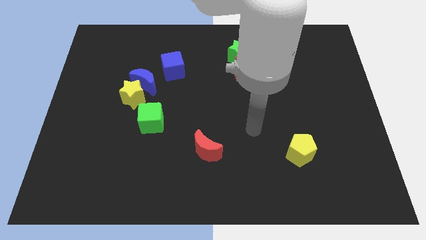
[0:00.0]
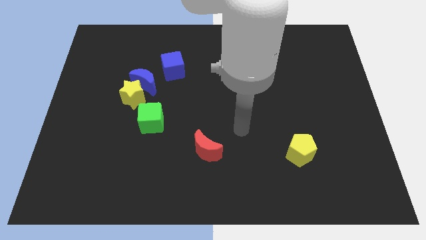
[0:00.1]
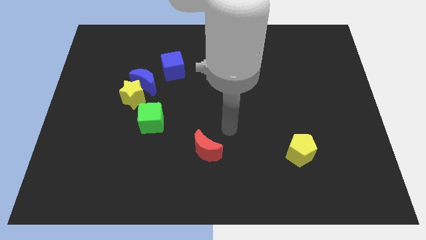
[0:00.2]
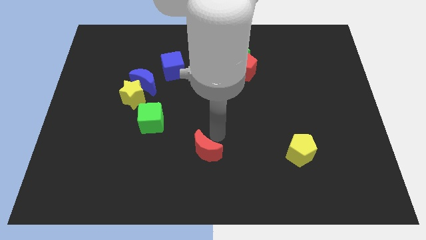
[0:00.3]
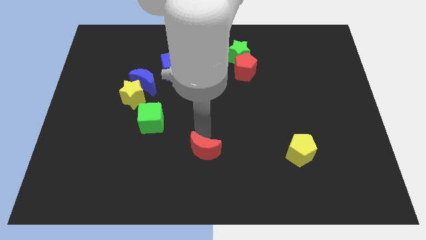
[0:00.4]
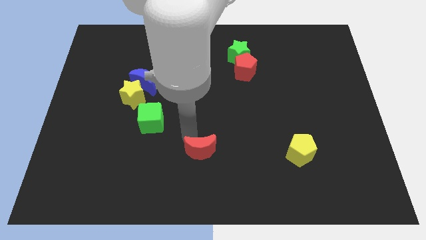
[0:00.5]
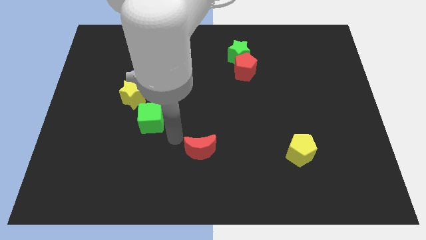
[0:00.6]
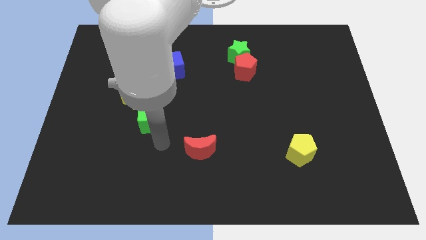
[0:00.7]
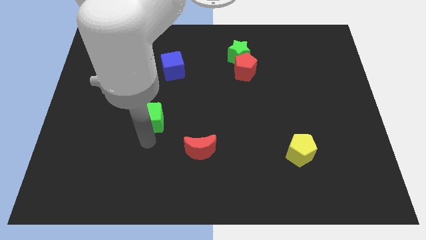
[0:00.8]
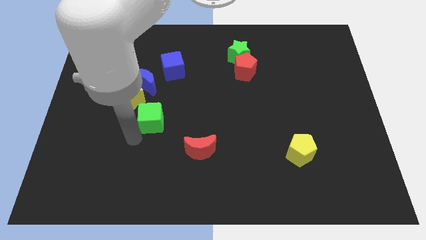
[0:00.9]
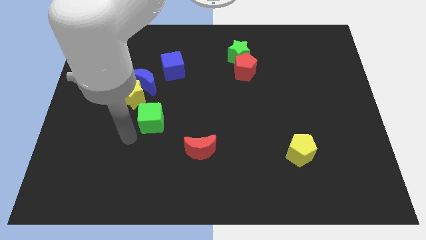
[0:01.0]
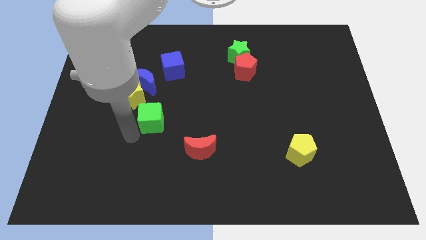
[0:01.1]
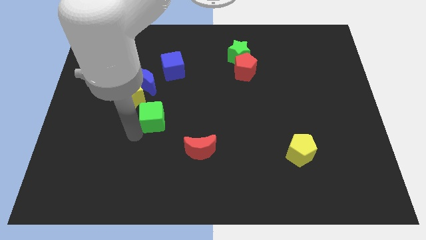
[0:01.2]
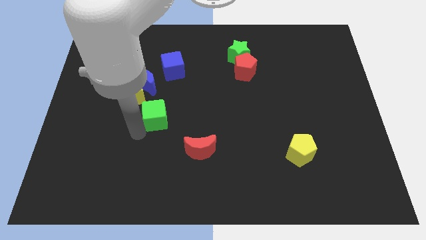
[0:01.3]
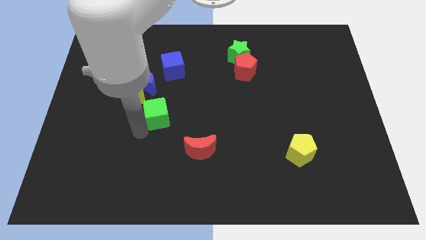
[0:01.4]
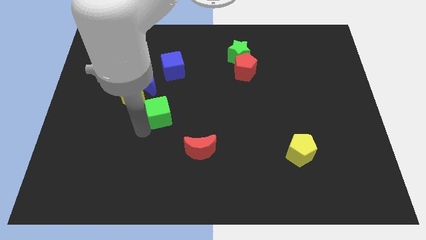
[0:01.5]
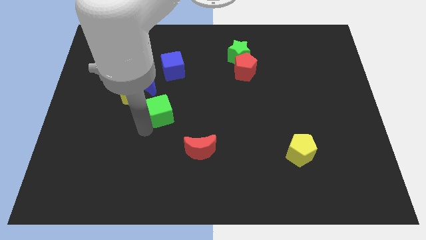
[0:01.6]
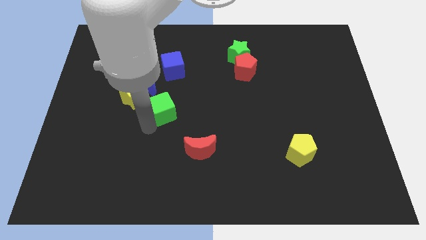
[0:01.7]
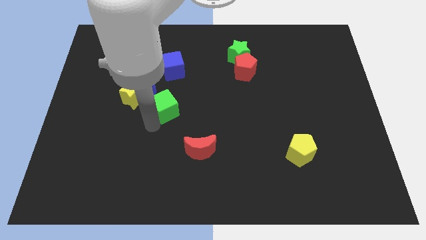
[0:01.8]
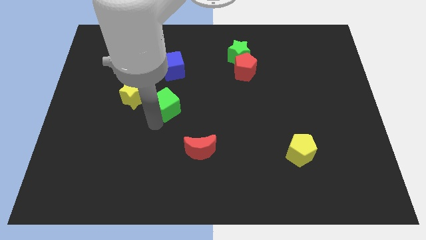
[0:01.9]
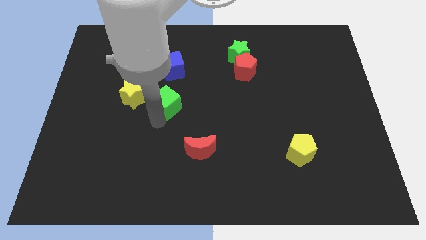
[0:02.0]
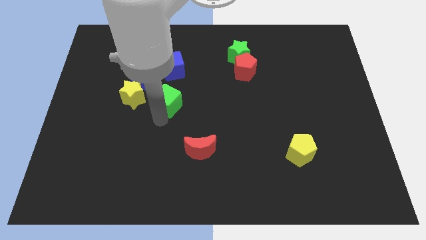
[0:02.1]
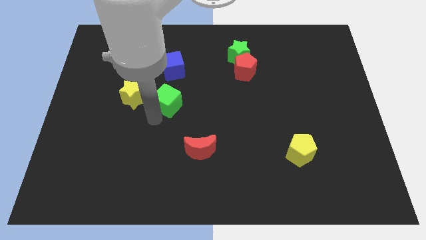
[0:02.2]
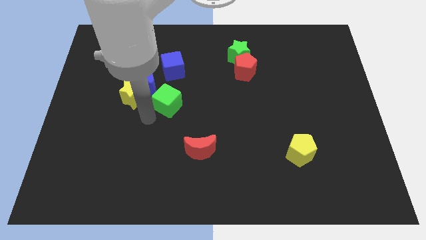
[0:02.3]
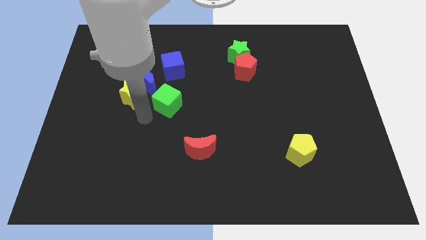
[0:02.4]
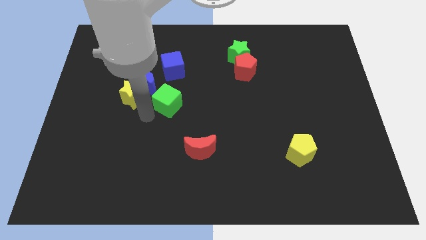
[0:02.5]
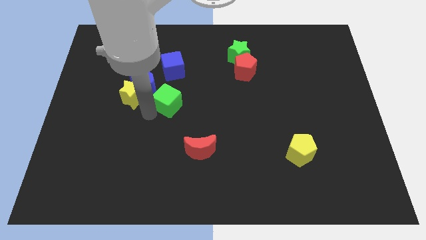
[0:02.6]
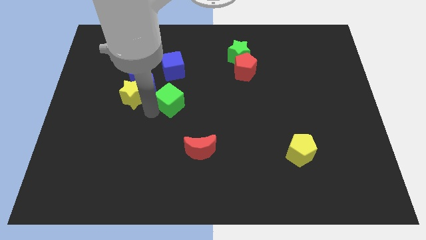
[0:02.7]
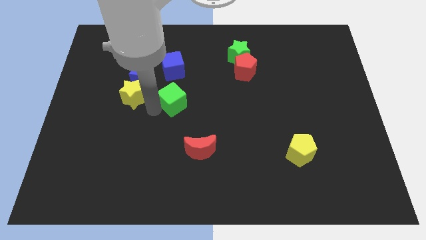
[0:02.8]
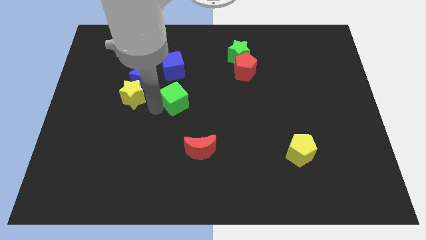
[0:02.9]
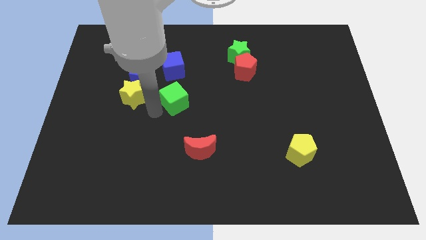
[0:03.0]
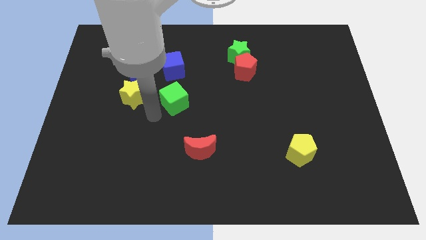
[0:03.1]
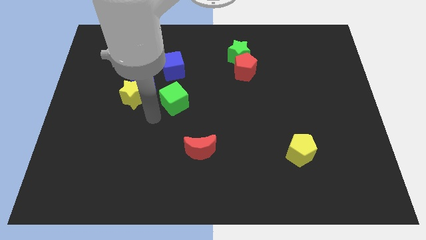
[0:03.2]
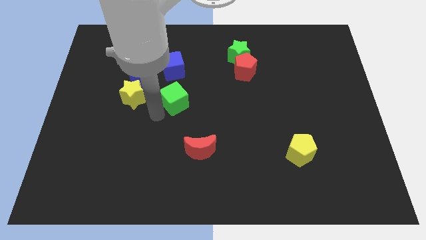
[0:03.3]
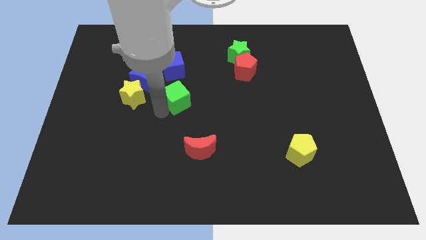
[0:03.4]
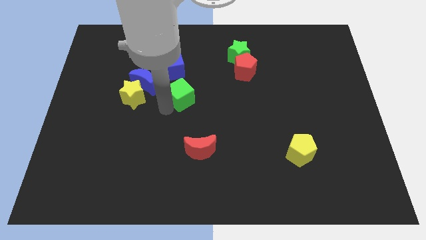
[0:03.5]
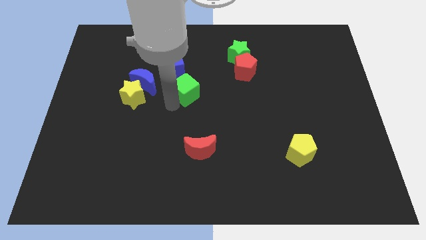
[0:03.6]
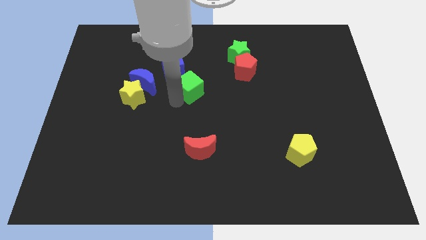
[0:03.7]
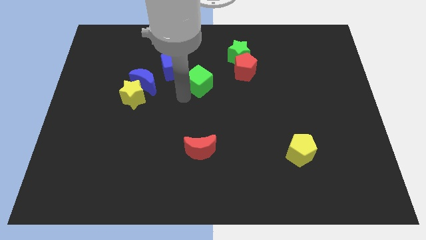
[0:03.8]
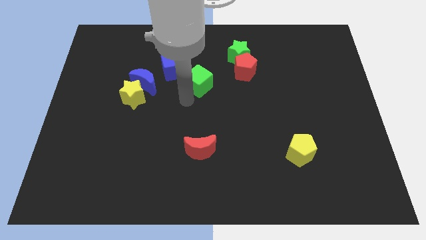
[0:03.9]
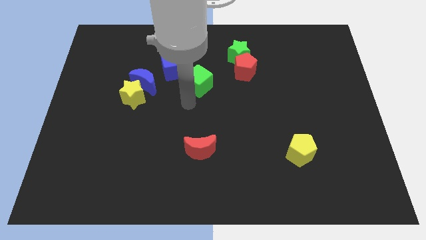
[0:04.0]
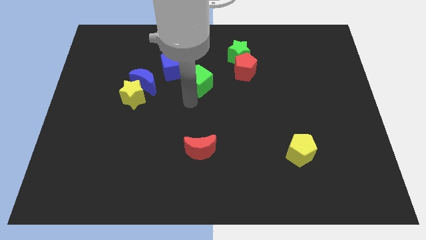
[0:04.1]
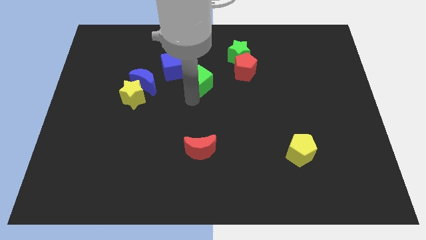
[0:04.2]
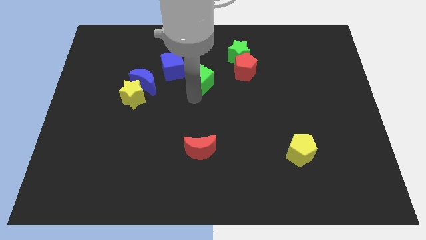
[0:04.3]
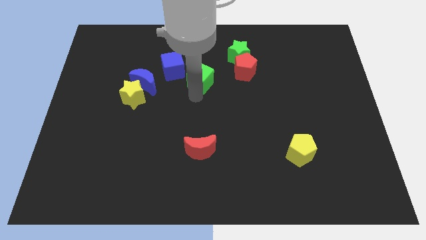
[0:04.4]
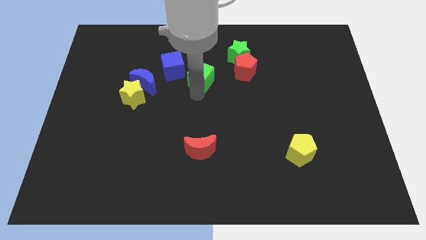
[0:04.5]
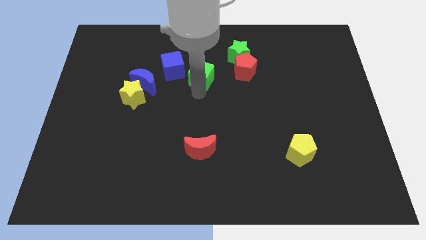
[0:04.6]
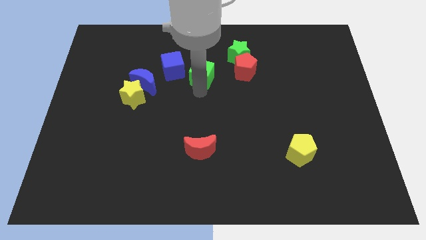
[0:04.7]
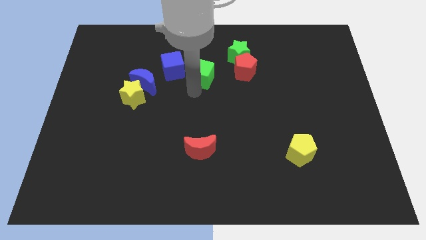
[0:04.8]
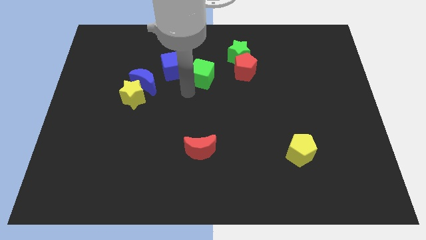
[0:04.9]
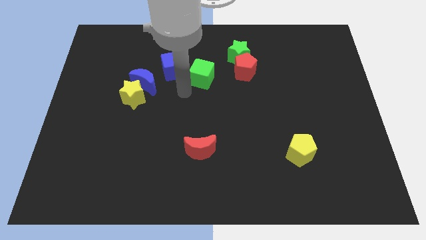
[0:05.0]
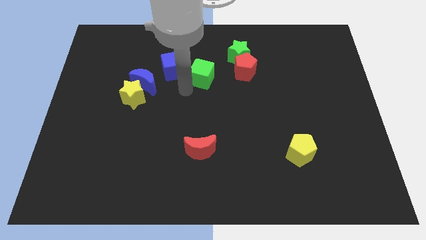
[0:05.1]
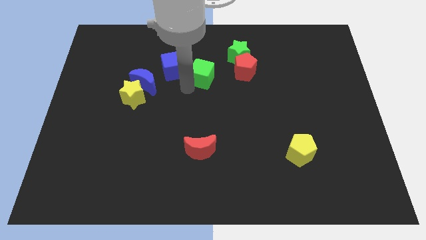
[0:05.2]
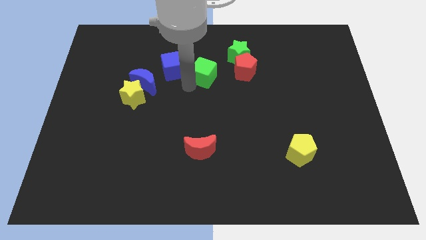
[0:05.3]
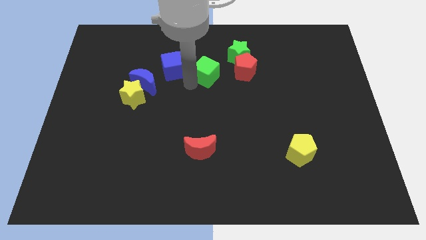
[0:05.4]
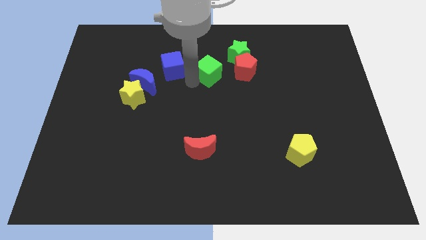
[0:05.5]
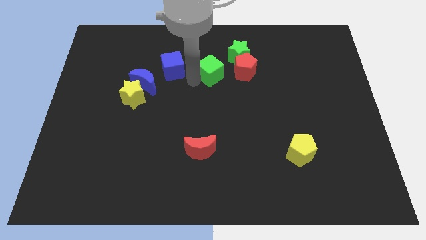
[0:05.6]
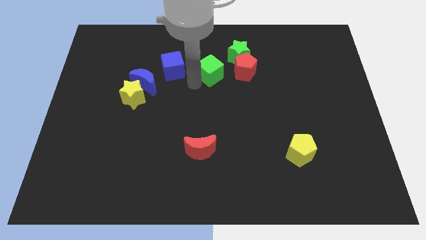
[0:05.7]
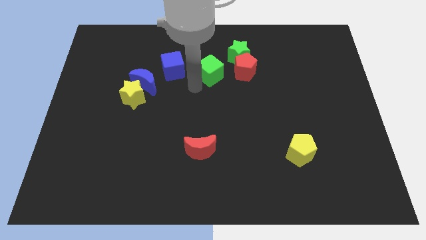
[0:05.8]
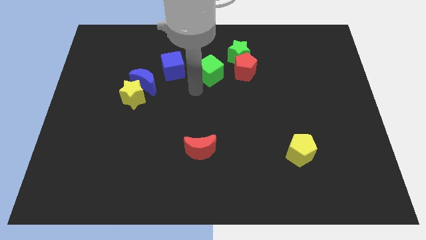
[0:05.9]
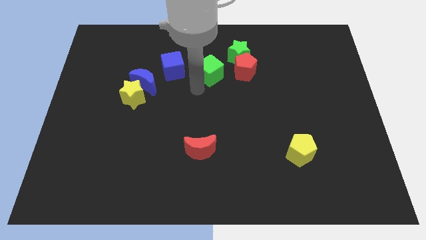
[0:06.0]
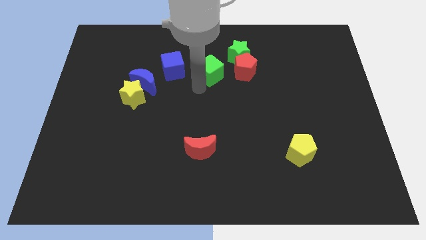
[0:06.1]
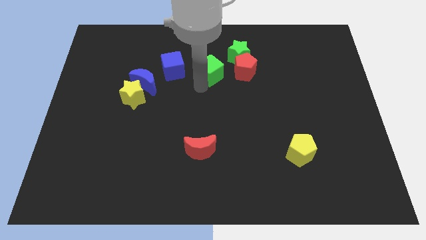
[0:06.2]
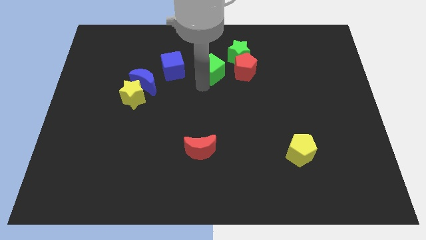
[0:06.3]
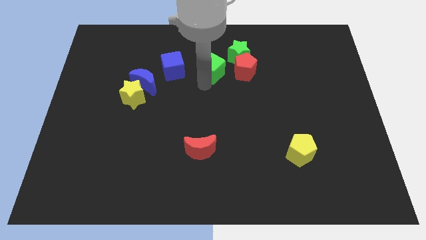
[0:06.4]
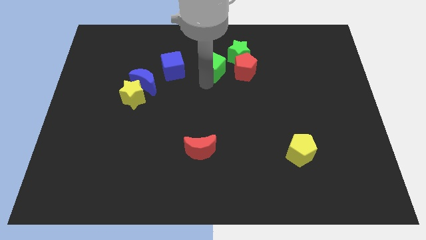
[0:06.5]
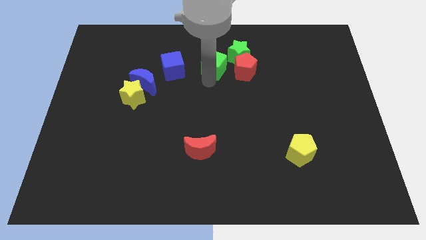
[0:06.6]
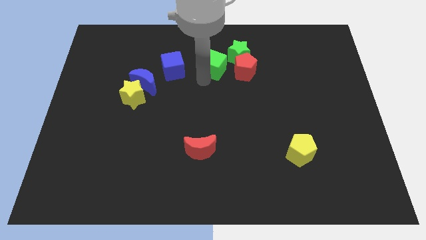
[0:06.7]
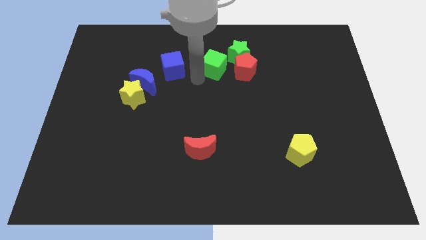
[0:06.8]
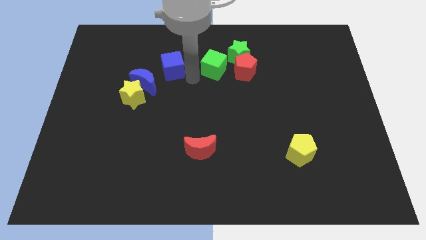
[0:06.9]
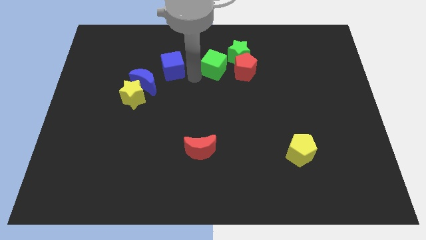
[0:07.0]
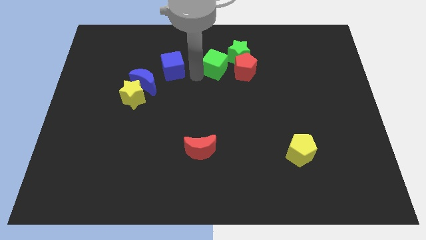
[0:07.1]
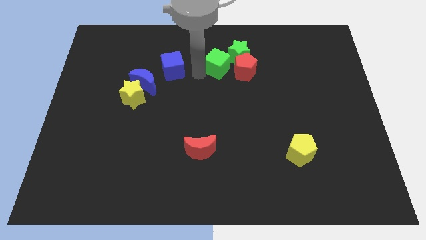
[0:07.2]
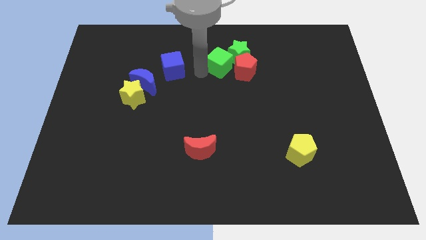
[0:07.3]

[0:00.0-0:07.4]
slide the green cube towards the green star
